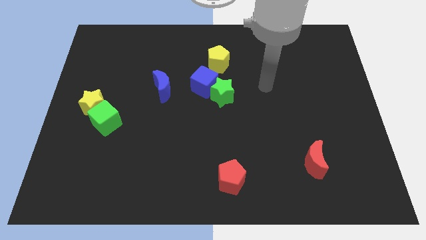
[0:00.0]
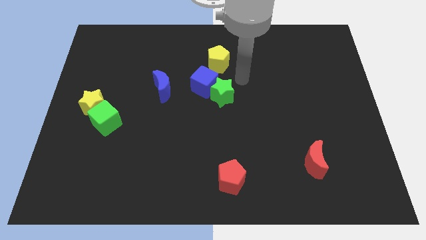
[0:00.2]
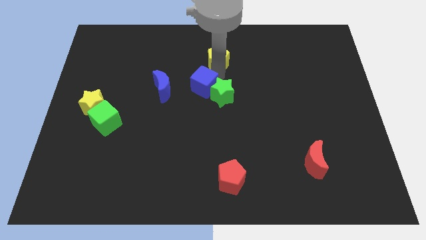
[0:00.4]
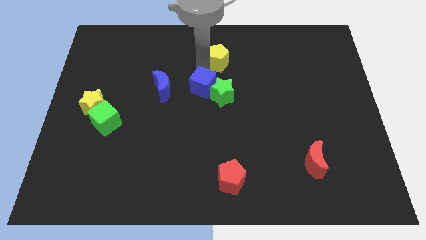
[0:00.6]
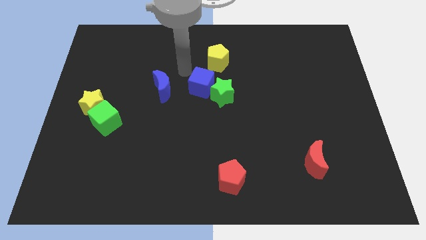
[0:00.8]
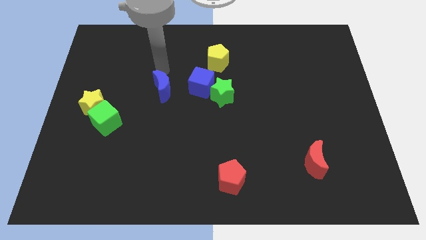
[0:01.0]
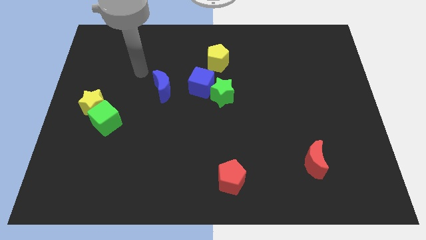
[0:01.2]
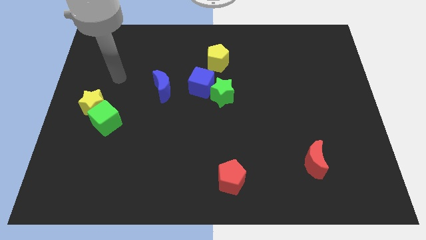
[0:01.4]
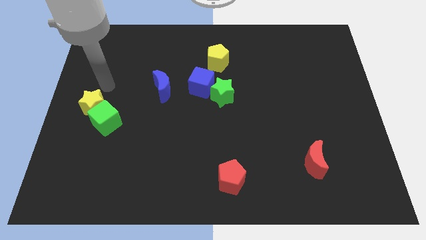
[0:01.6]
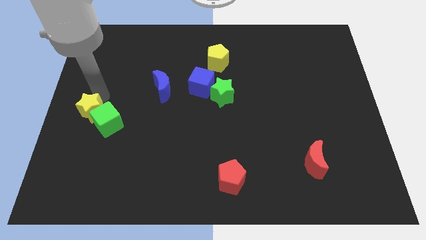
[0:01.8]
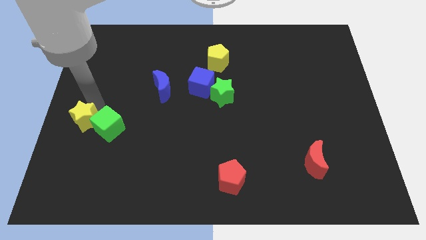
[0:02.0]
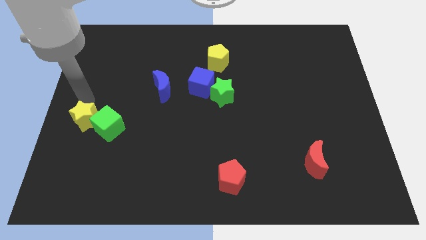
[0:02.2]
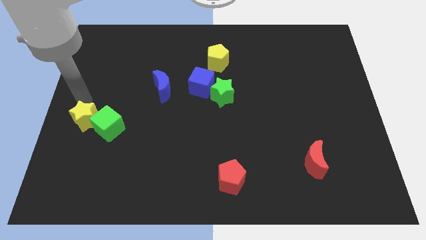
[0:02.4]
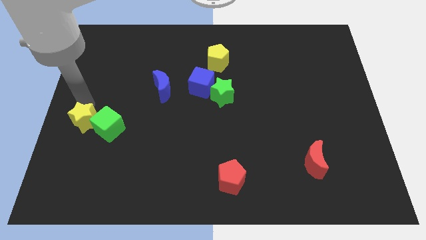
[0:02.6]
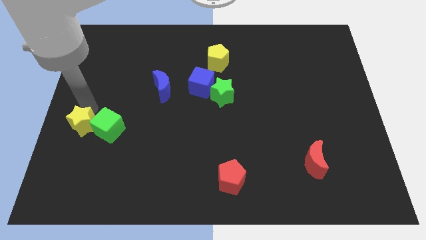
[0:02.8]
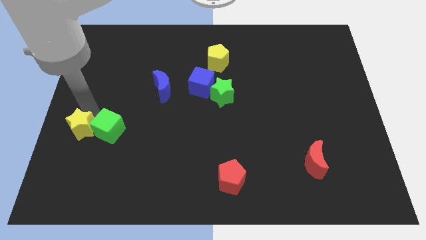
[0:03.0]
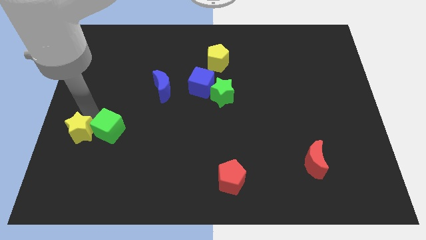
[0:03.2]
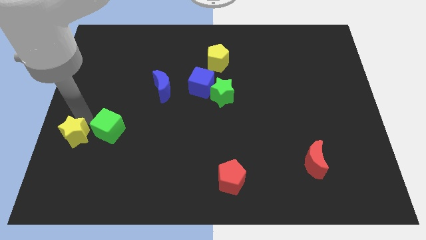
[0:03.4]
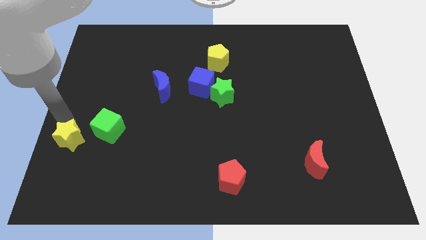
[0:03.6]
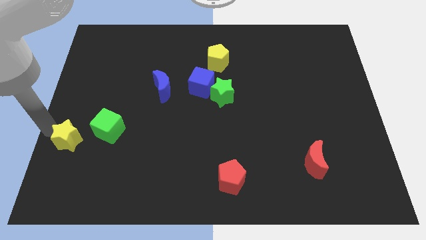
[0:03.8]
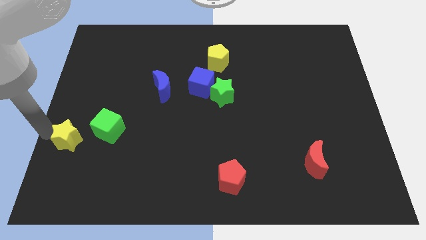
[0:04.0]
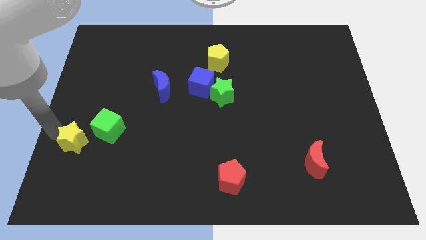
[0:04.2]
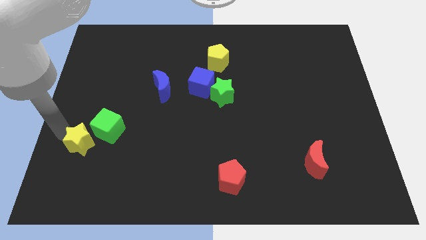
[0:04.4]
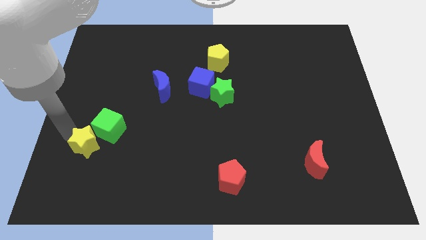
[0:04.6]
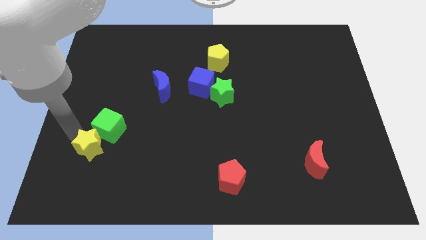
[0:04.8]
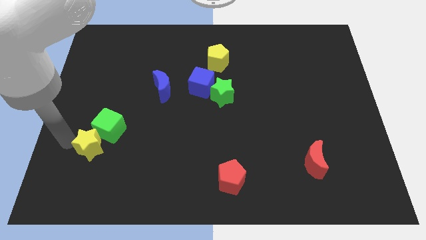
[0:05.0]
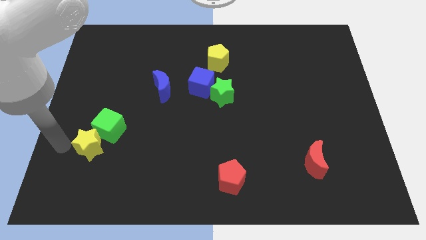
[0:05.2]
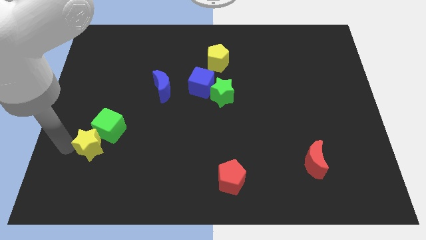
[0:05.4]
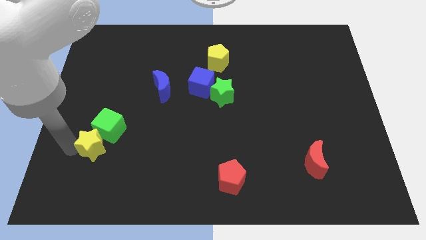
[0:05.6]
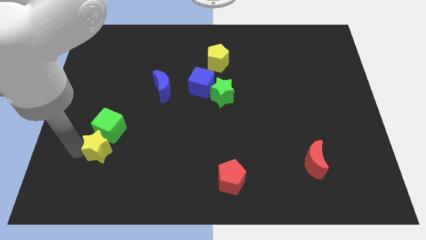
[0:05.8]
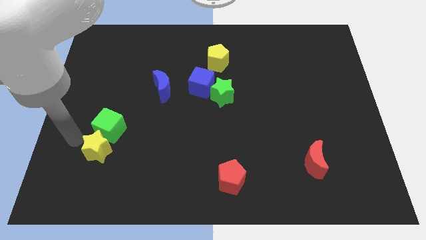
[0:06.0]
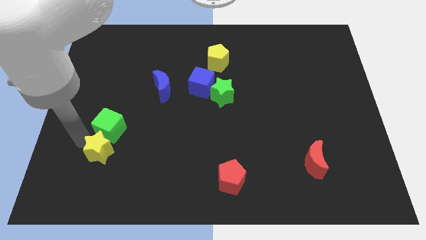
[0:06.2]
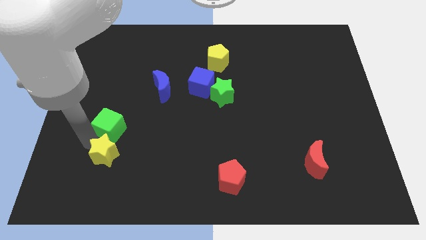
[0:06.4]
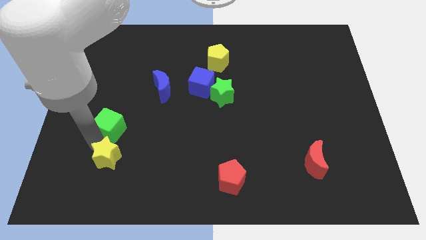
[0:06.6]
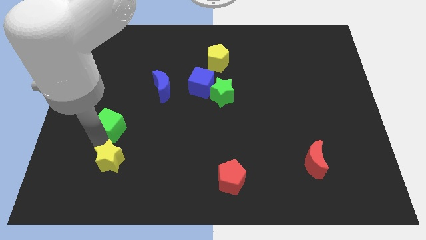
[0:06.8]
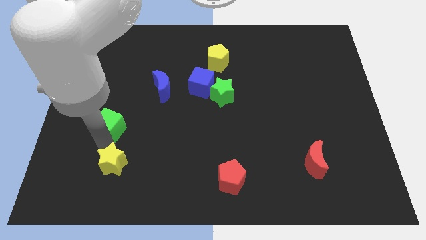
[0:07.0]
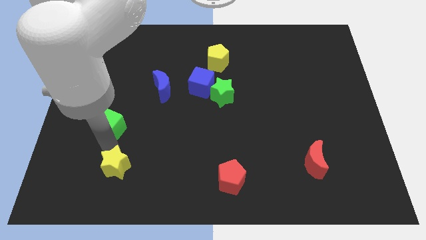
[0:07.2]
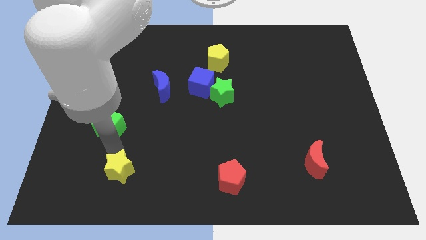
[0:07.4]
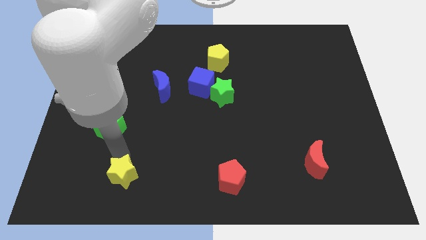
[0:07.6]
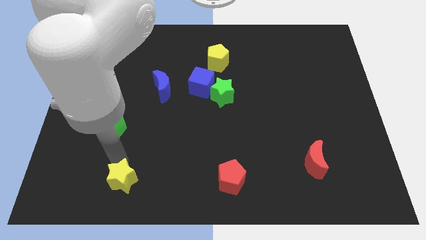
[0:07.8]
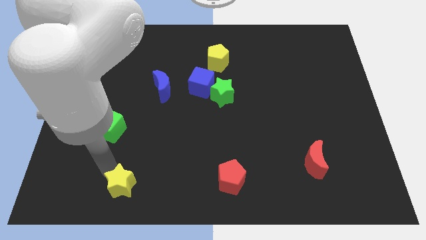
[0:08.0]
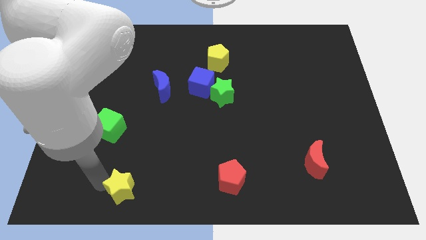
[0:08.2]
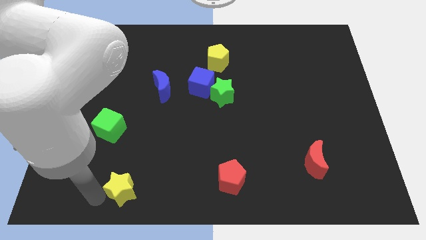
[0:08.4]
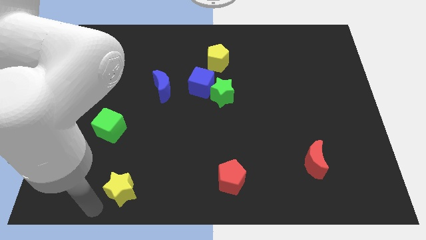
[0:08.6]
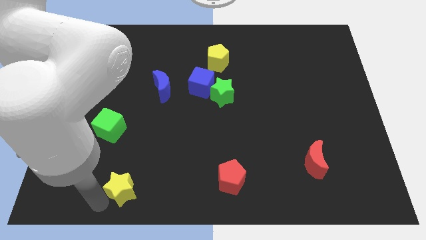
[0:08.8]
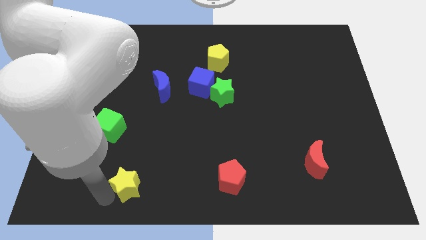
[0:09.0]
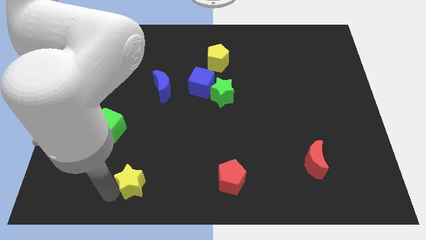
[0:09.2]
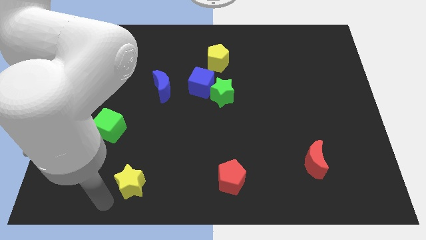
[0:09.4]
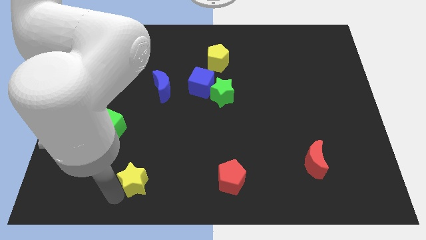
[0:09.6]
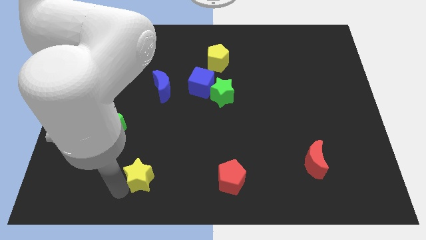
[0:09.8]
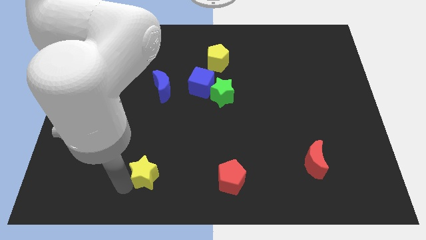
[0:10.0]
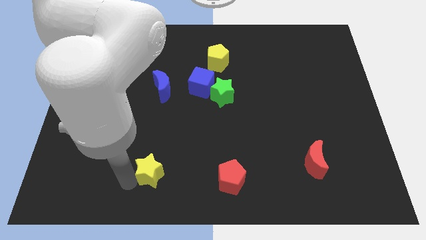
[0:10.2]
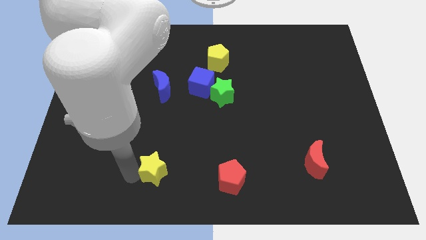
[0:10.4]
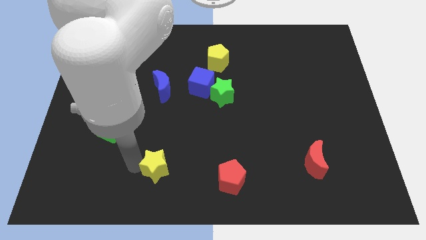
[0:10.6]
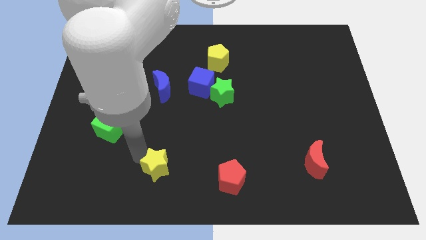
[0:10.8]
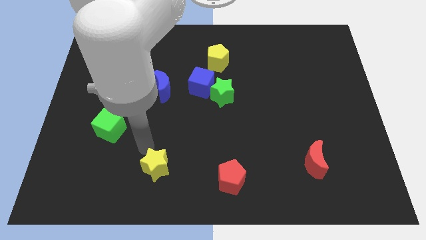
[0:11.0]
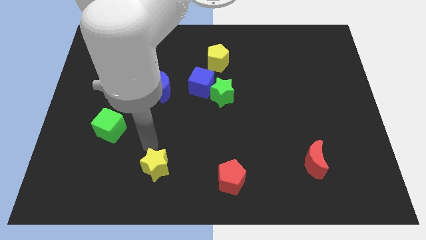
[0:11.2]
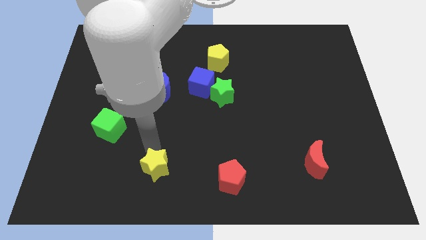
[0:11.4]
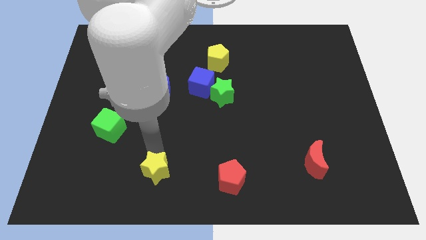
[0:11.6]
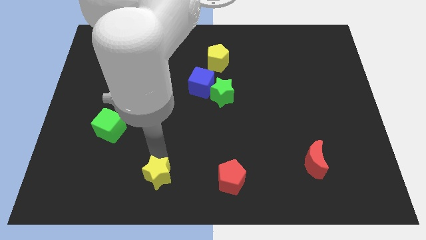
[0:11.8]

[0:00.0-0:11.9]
move the yellow star to the bottom side
